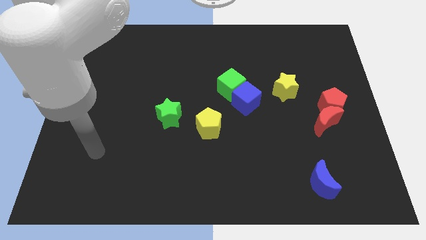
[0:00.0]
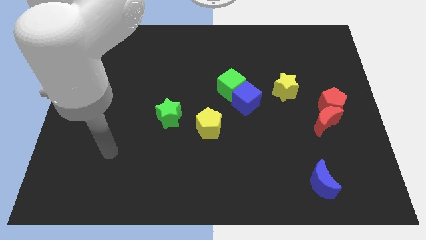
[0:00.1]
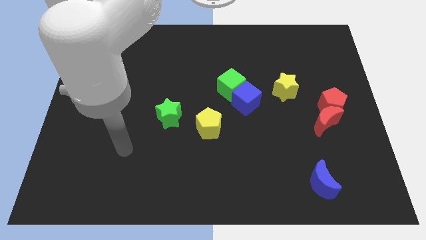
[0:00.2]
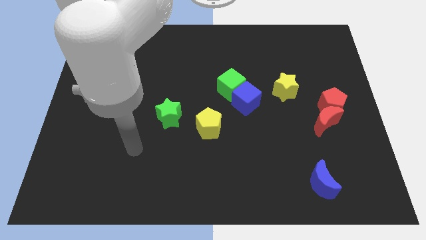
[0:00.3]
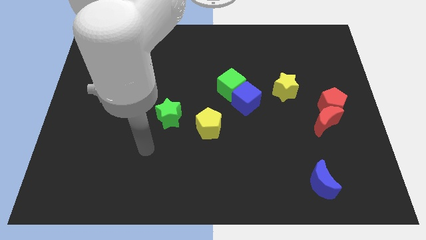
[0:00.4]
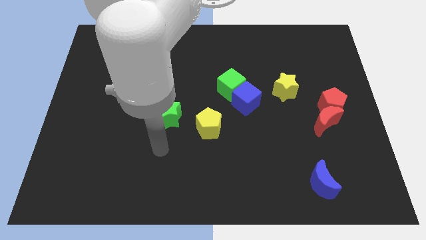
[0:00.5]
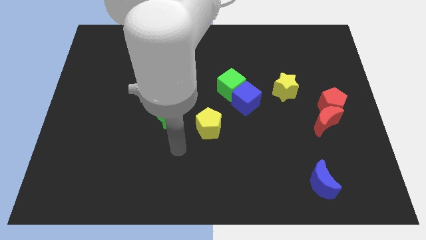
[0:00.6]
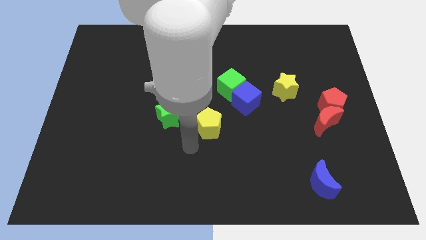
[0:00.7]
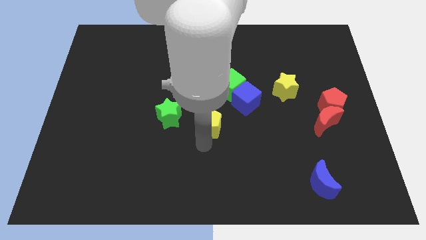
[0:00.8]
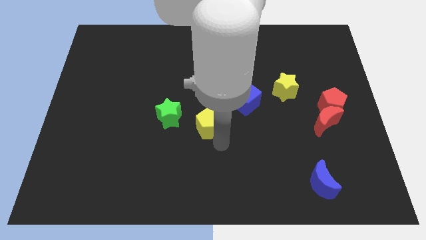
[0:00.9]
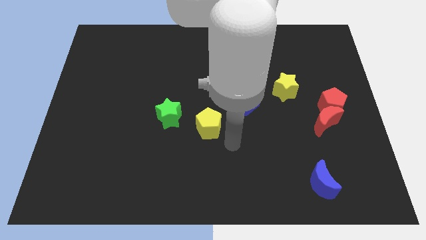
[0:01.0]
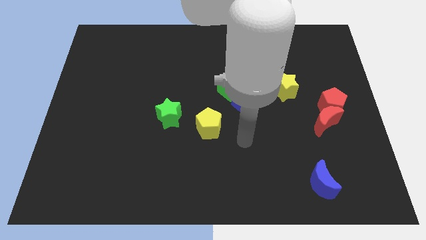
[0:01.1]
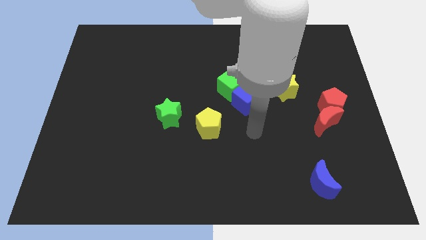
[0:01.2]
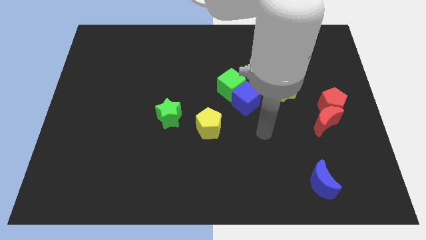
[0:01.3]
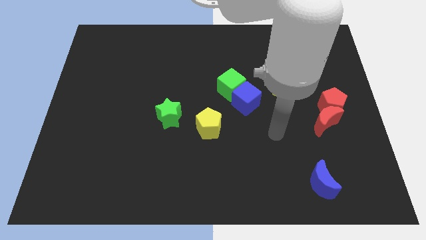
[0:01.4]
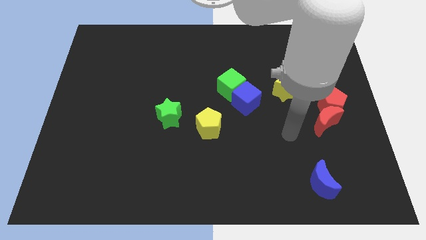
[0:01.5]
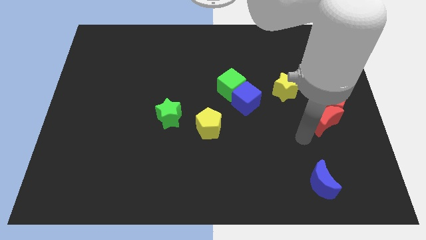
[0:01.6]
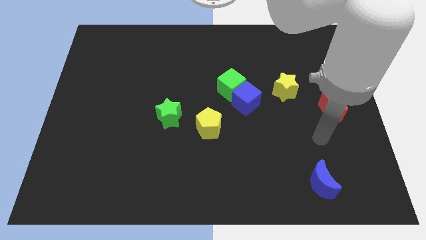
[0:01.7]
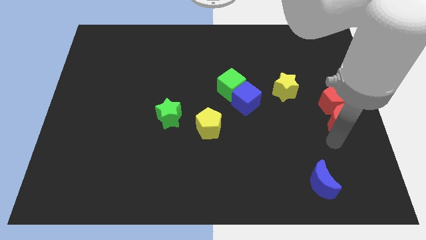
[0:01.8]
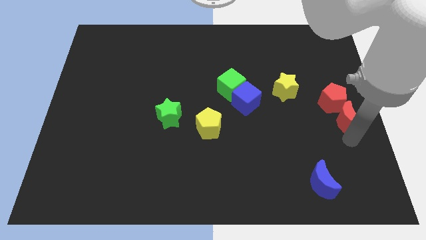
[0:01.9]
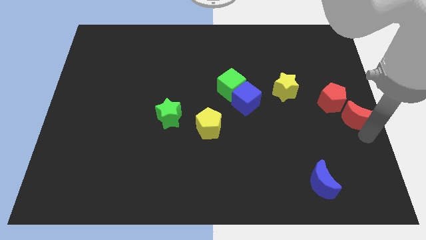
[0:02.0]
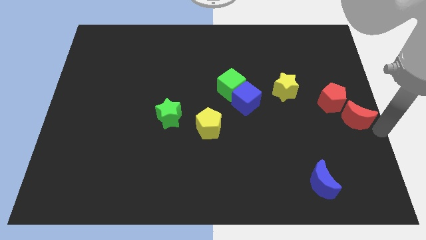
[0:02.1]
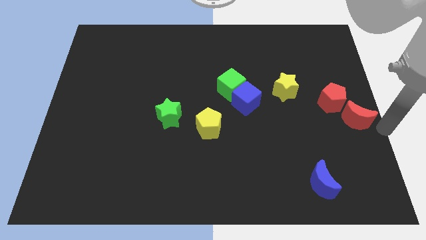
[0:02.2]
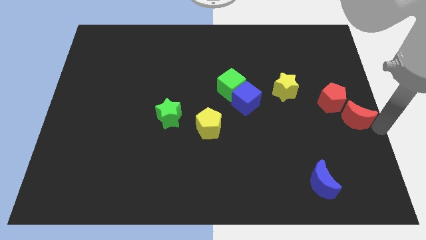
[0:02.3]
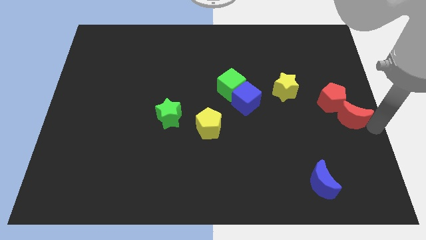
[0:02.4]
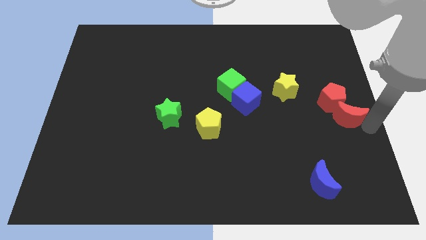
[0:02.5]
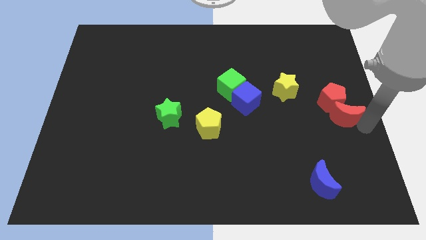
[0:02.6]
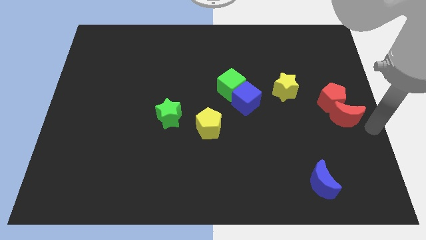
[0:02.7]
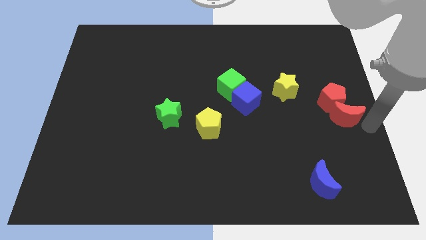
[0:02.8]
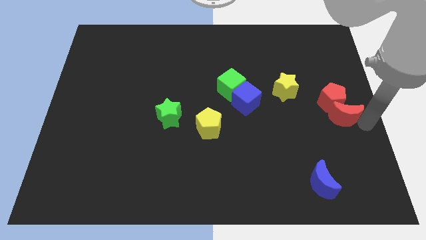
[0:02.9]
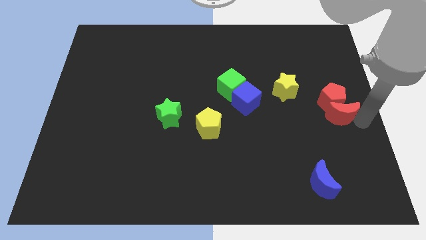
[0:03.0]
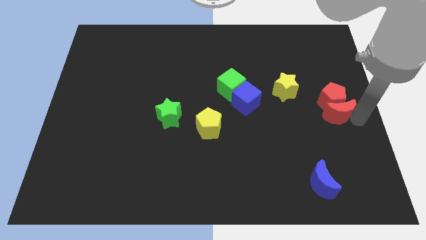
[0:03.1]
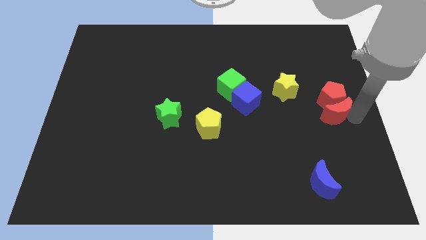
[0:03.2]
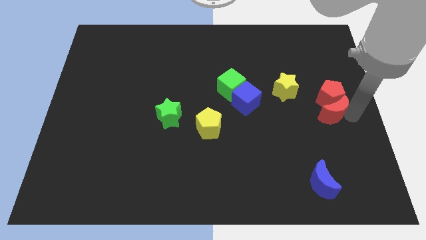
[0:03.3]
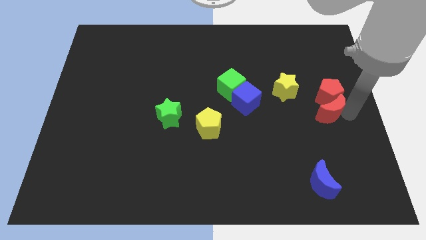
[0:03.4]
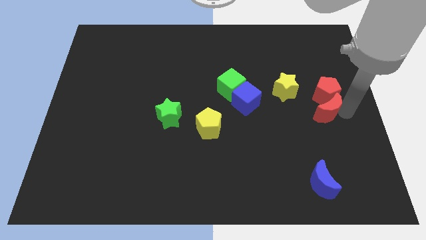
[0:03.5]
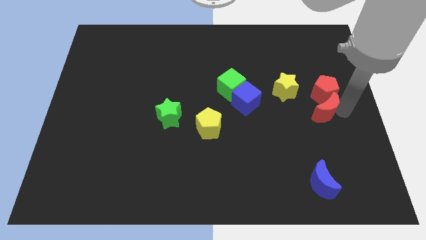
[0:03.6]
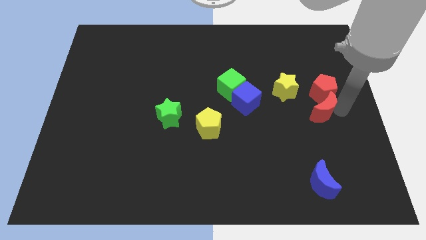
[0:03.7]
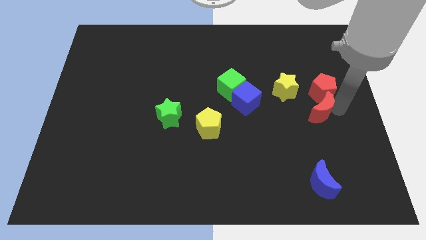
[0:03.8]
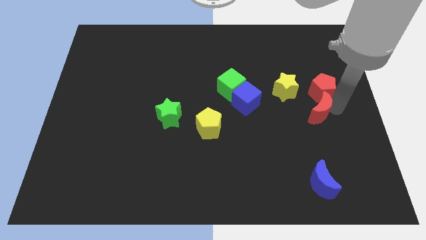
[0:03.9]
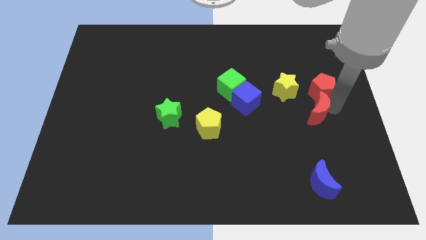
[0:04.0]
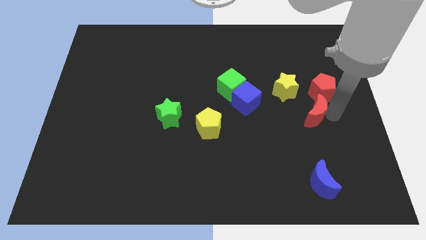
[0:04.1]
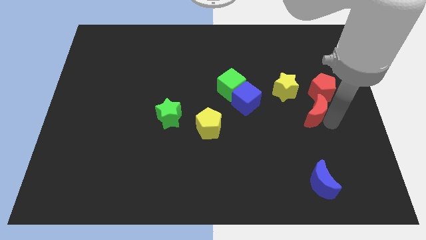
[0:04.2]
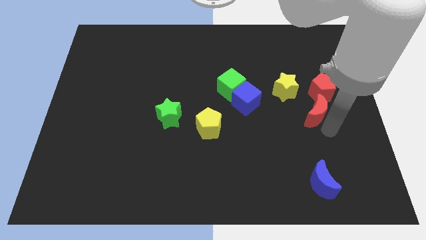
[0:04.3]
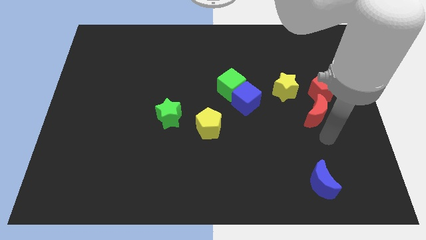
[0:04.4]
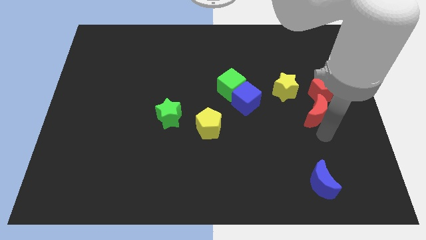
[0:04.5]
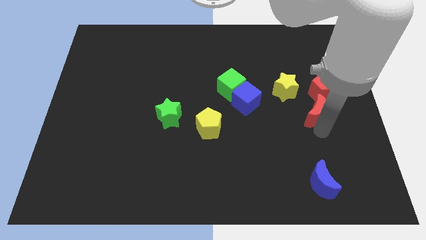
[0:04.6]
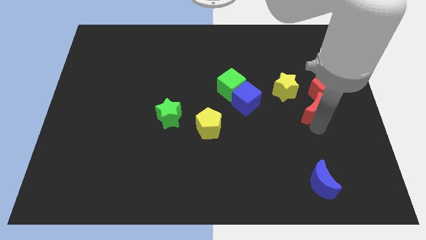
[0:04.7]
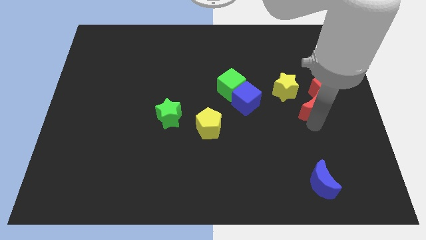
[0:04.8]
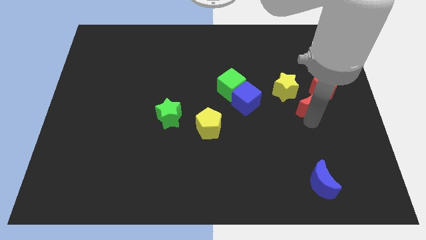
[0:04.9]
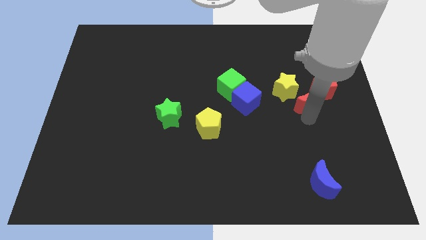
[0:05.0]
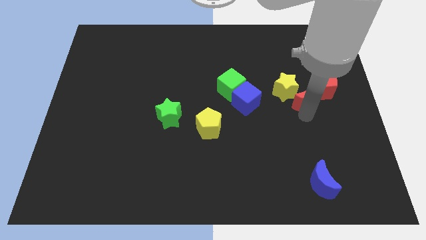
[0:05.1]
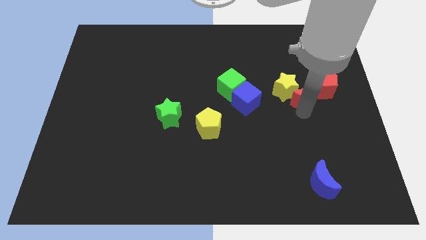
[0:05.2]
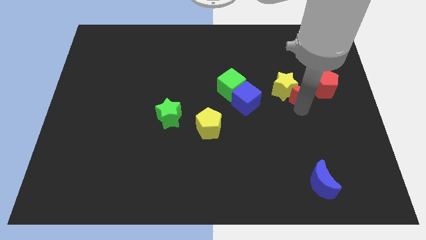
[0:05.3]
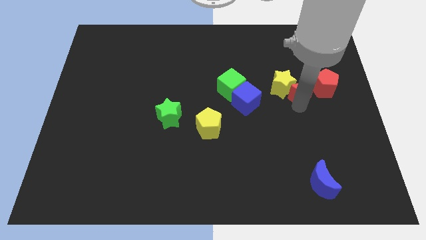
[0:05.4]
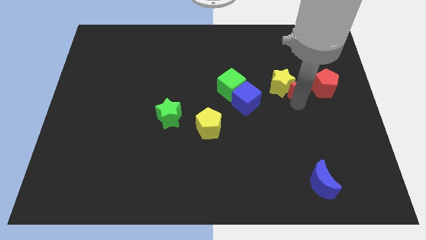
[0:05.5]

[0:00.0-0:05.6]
push the red moon to the top left of the red pentagon

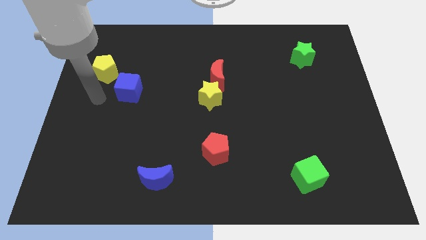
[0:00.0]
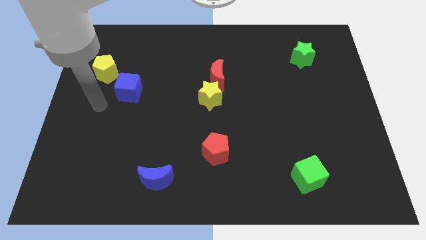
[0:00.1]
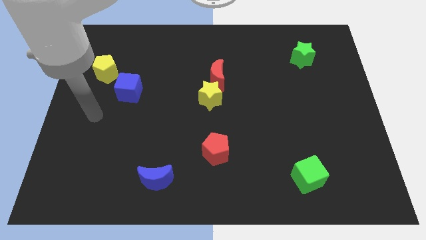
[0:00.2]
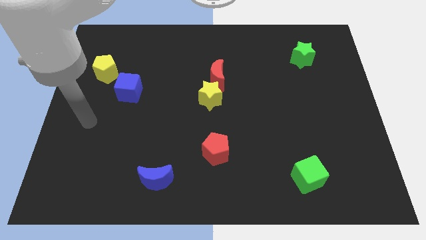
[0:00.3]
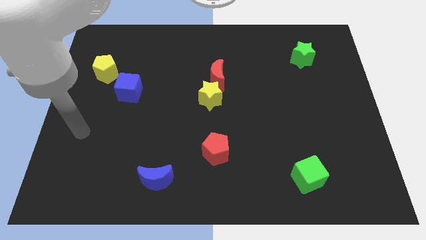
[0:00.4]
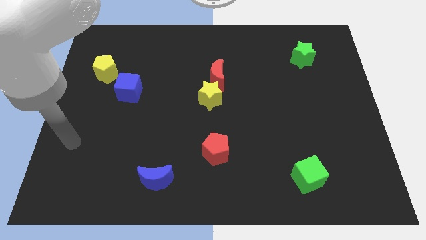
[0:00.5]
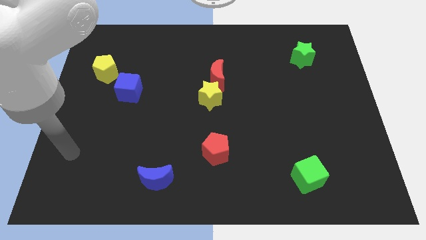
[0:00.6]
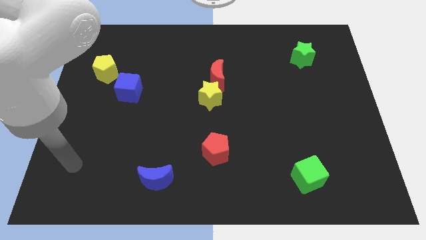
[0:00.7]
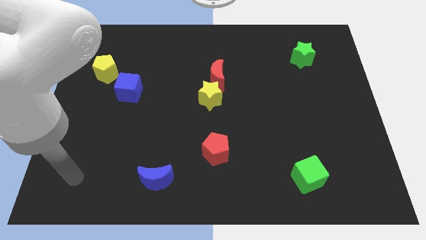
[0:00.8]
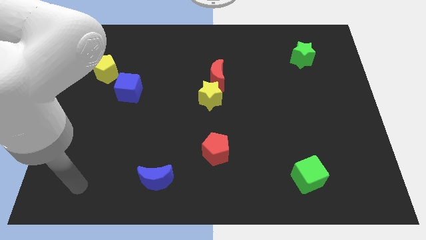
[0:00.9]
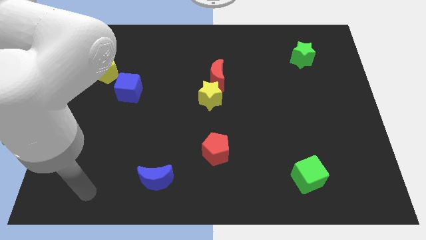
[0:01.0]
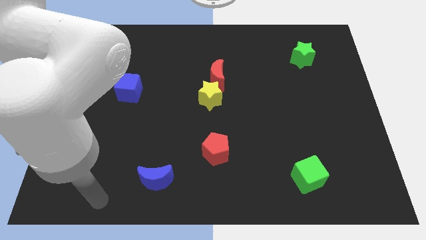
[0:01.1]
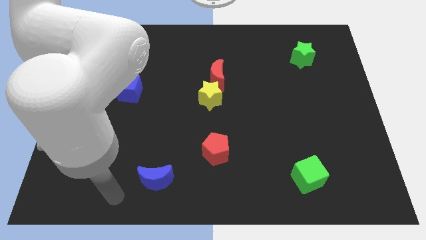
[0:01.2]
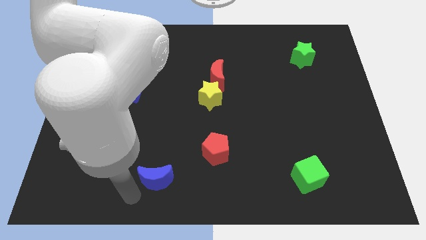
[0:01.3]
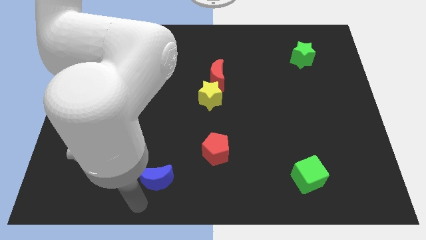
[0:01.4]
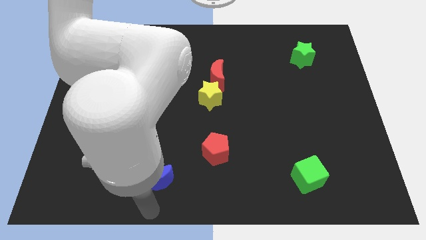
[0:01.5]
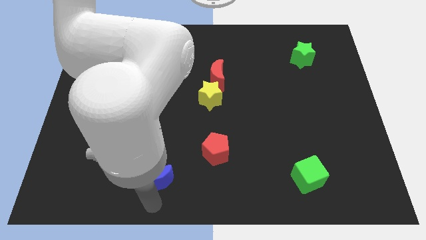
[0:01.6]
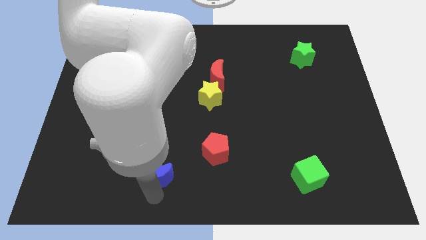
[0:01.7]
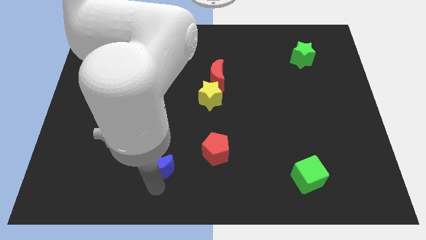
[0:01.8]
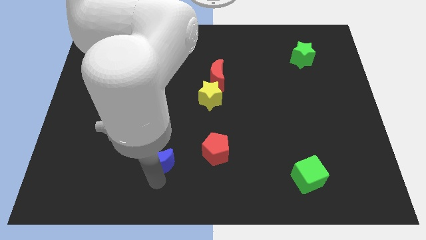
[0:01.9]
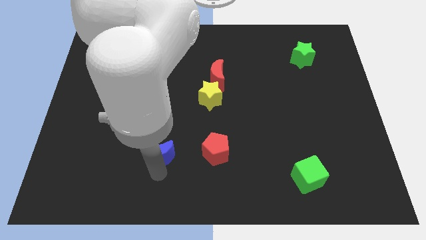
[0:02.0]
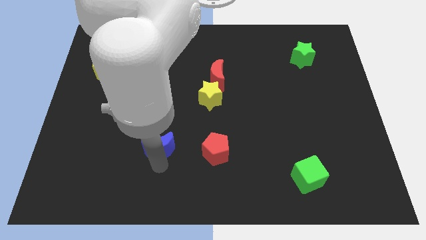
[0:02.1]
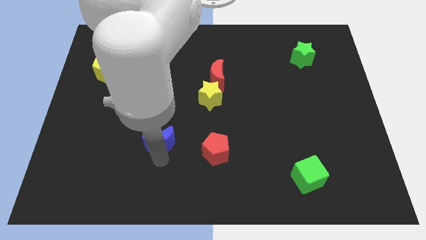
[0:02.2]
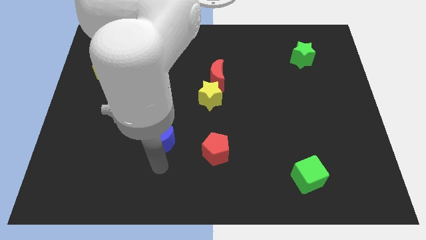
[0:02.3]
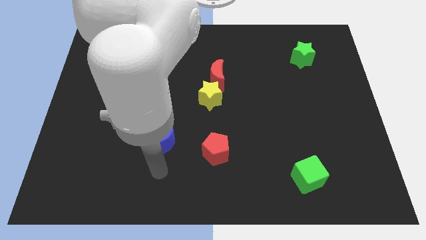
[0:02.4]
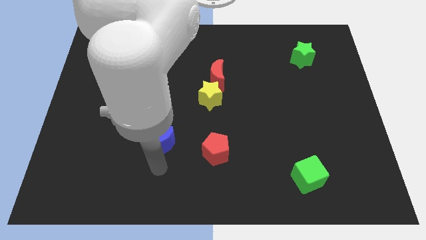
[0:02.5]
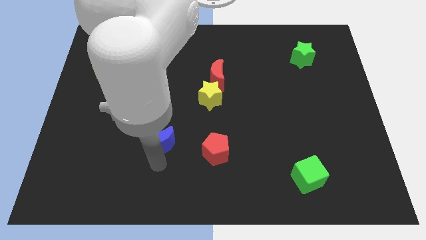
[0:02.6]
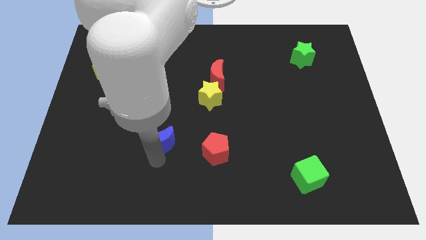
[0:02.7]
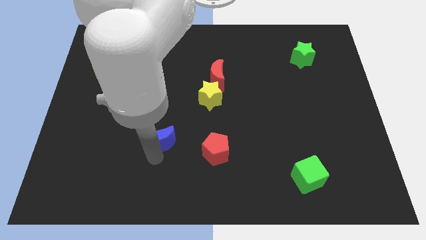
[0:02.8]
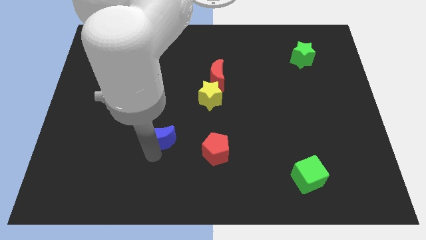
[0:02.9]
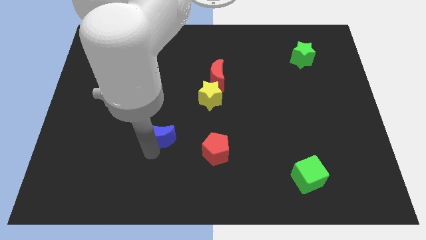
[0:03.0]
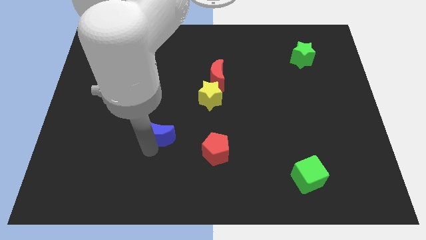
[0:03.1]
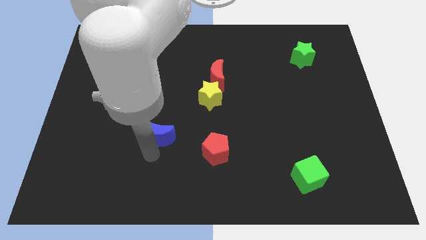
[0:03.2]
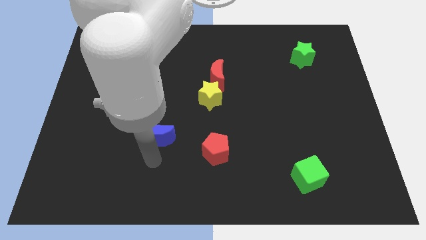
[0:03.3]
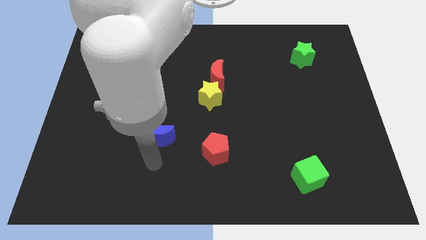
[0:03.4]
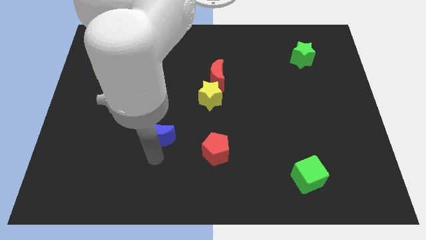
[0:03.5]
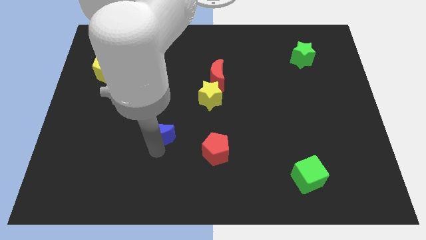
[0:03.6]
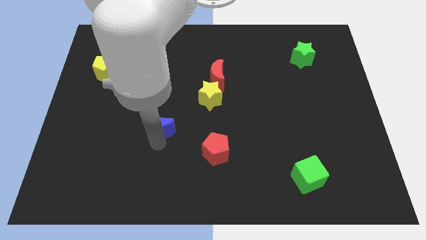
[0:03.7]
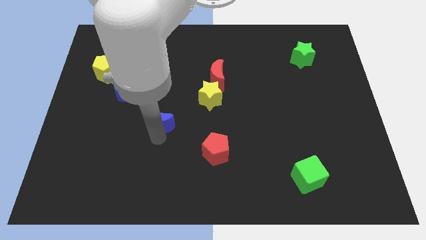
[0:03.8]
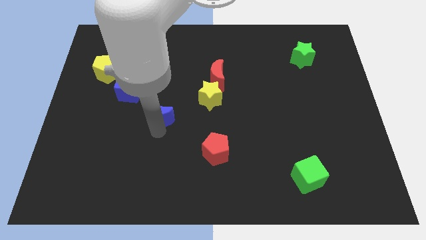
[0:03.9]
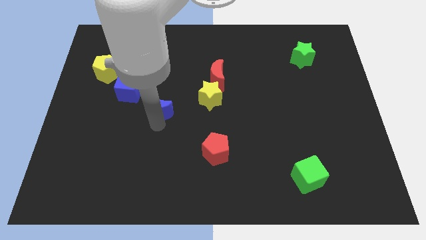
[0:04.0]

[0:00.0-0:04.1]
move the blue moon to the left of the yellow star
